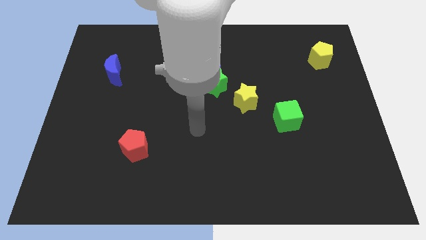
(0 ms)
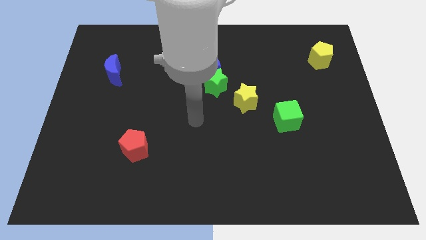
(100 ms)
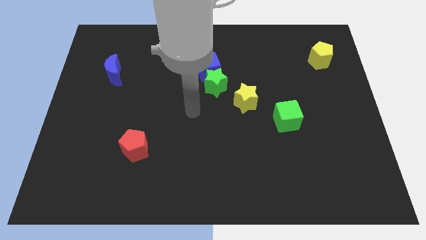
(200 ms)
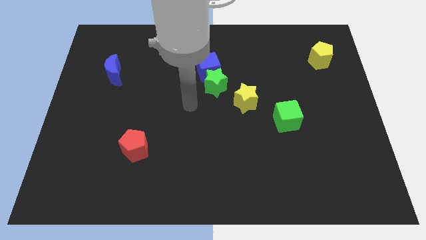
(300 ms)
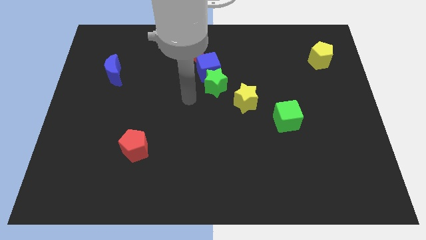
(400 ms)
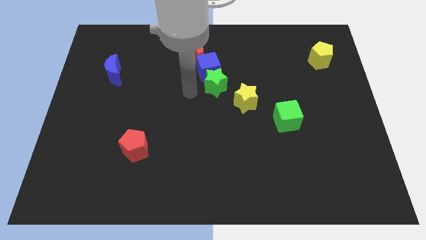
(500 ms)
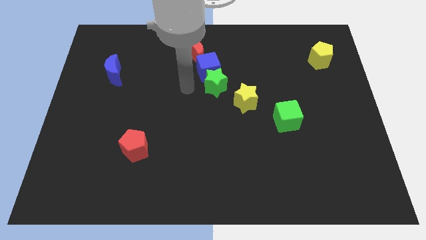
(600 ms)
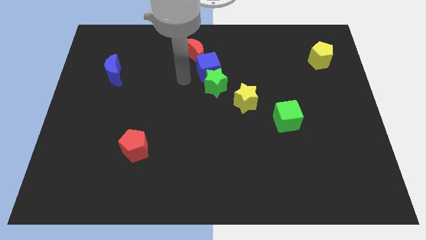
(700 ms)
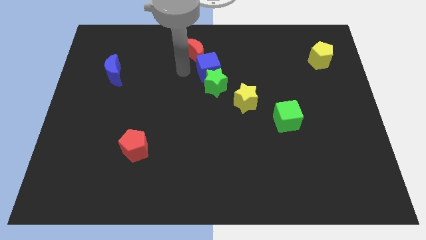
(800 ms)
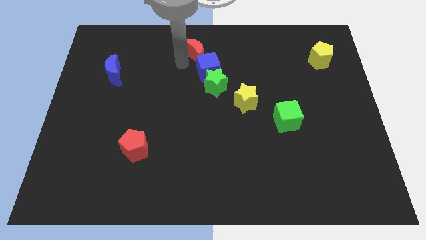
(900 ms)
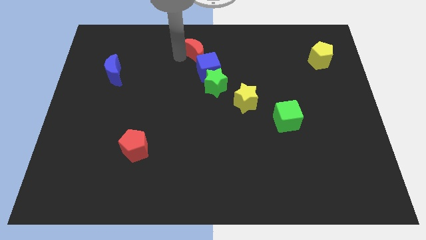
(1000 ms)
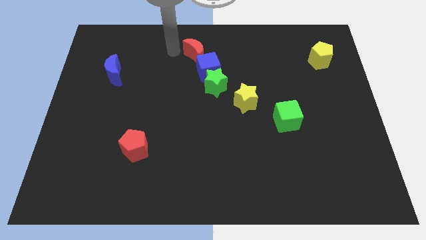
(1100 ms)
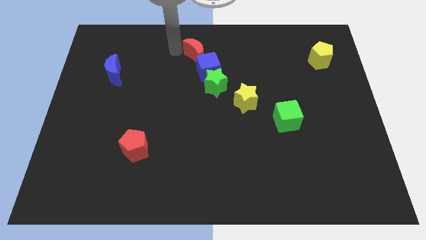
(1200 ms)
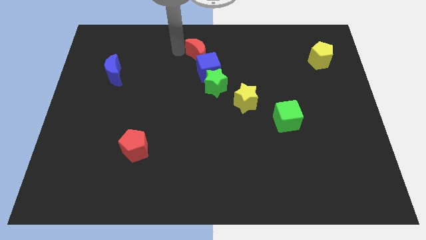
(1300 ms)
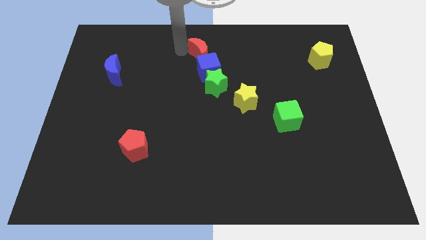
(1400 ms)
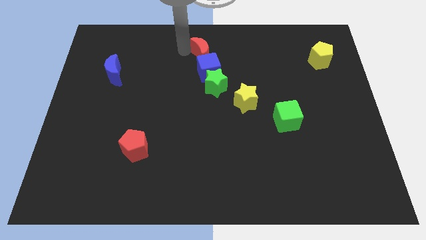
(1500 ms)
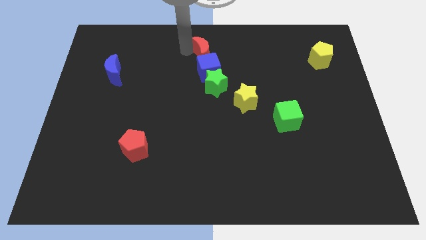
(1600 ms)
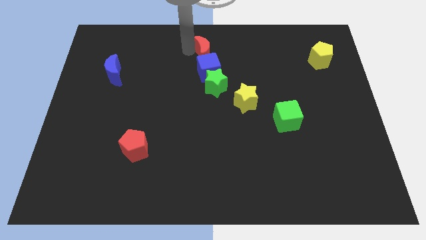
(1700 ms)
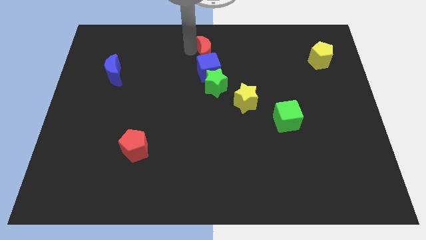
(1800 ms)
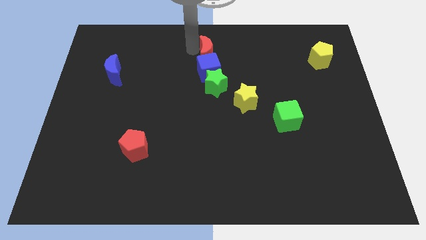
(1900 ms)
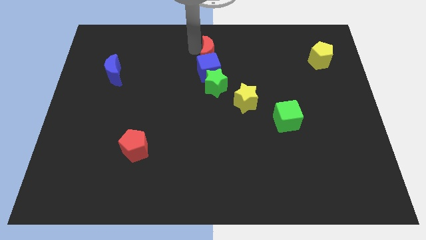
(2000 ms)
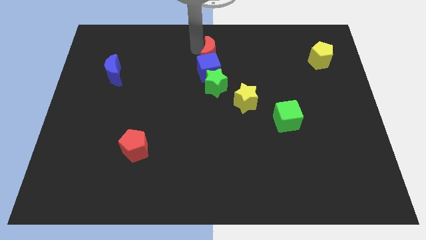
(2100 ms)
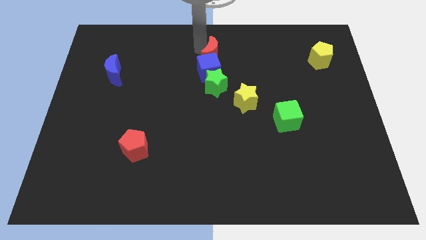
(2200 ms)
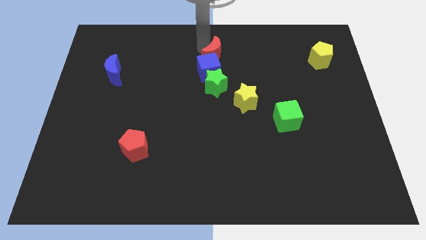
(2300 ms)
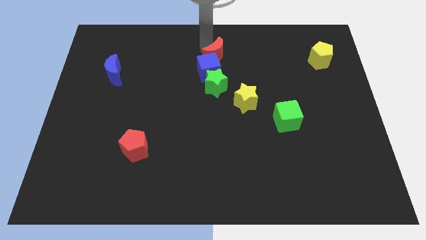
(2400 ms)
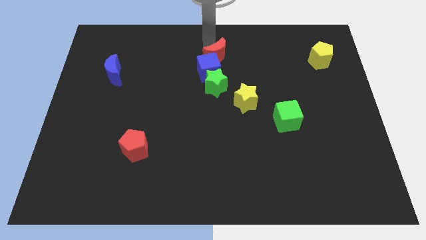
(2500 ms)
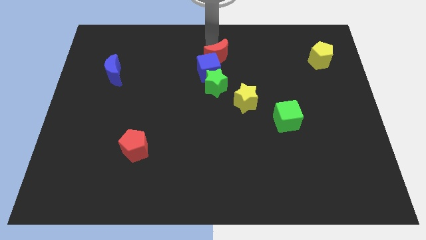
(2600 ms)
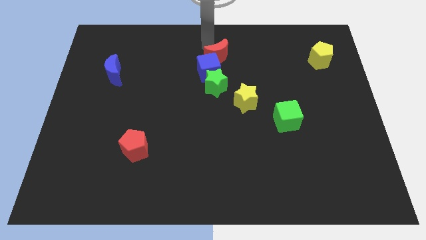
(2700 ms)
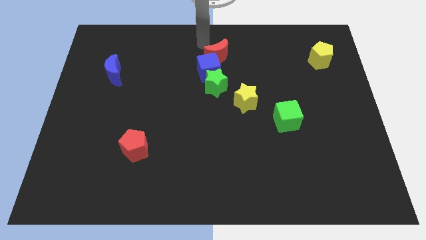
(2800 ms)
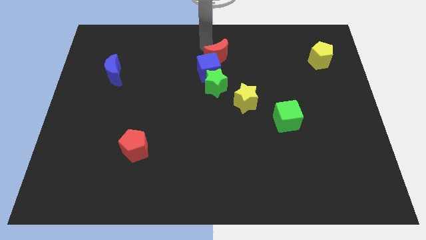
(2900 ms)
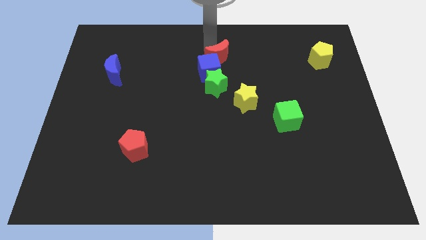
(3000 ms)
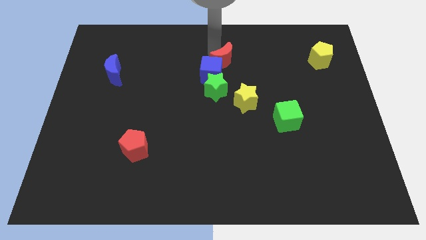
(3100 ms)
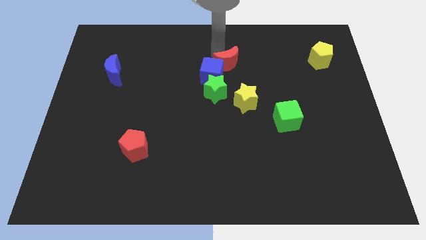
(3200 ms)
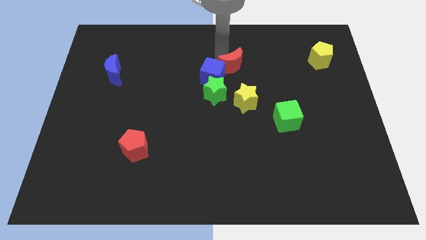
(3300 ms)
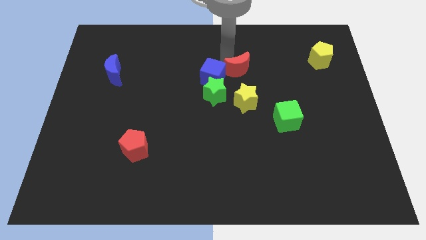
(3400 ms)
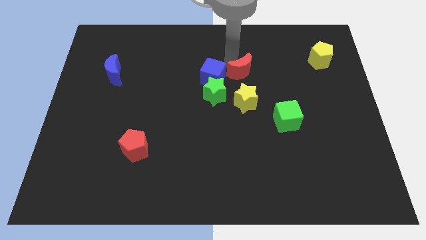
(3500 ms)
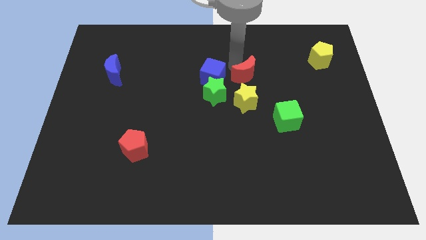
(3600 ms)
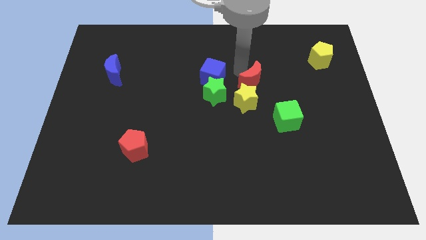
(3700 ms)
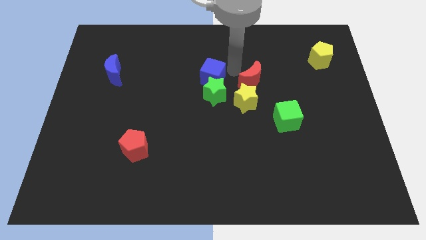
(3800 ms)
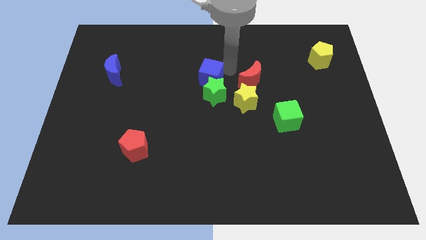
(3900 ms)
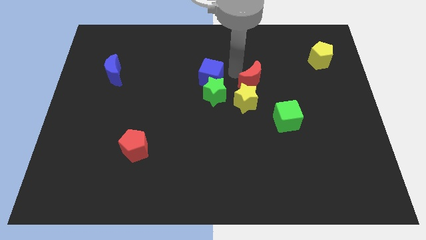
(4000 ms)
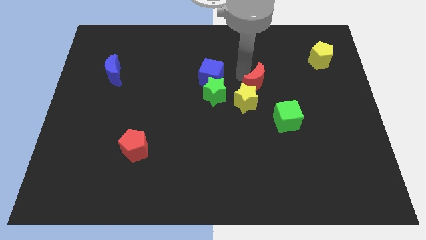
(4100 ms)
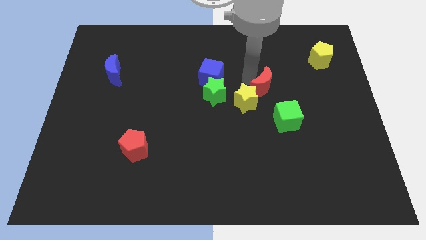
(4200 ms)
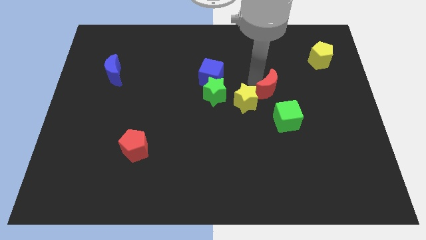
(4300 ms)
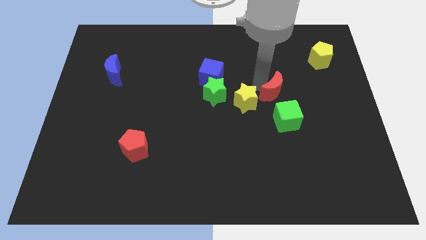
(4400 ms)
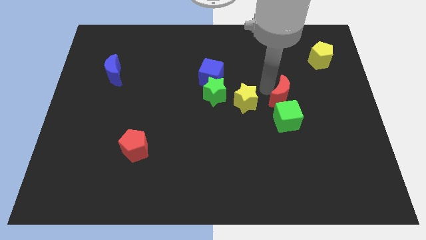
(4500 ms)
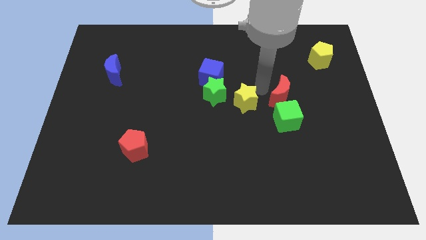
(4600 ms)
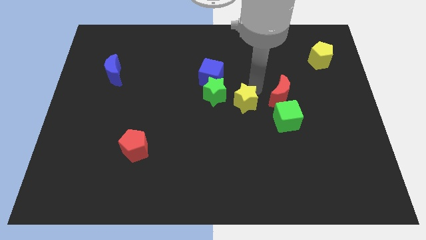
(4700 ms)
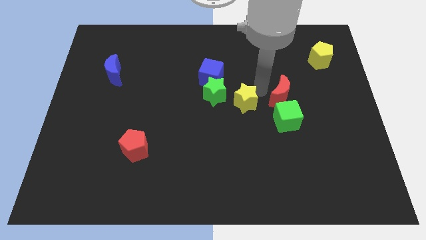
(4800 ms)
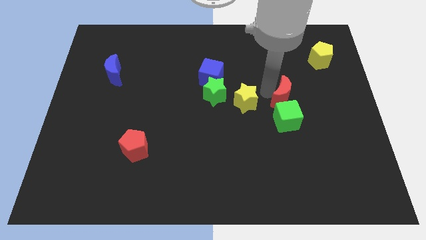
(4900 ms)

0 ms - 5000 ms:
put the red moon diagonally up and to the right of the green cube

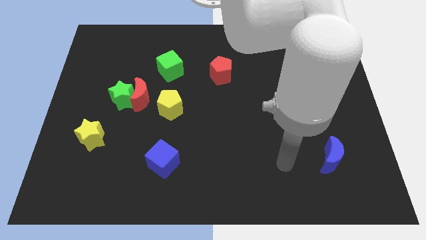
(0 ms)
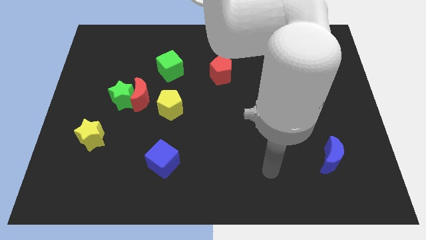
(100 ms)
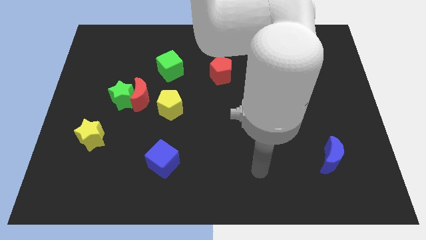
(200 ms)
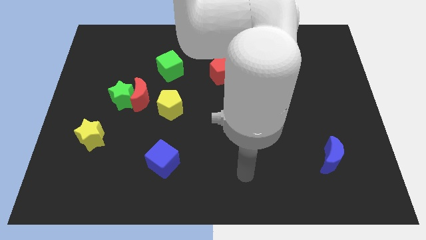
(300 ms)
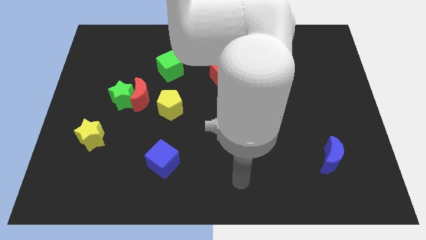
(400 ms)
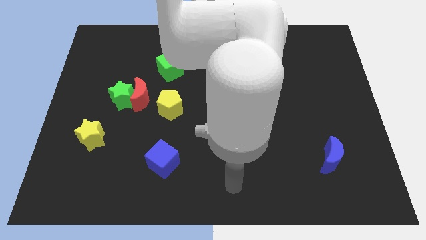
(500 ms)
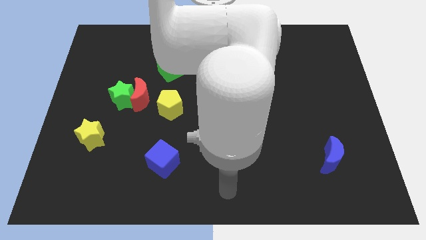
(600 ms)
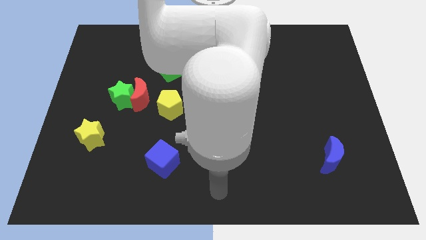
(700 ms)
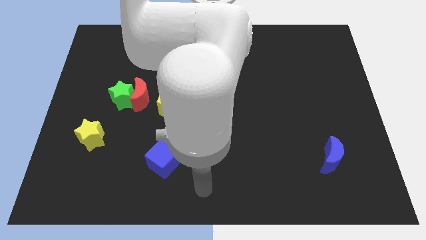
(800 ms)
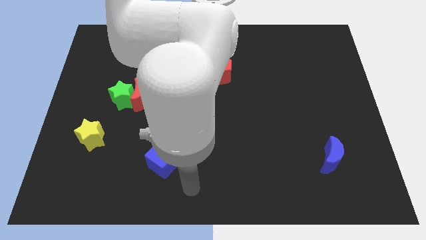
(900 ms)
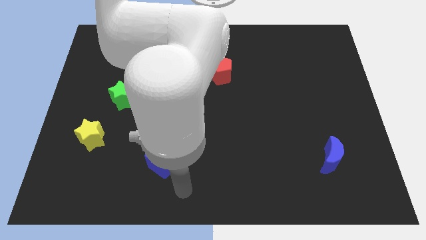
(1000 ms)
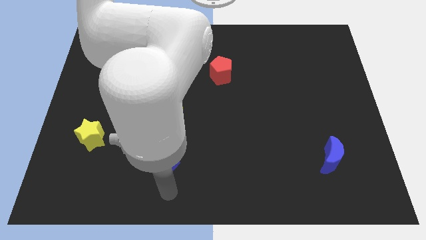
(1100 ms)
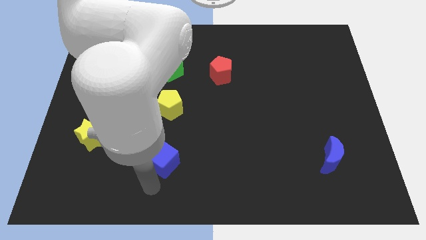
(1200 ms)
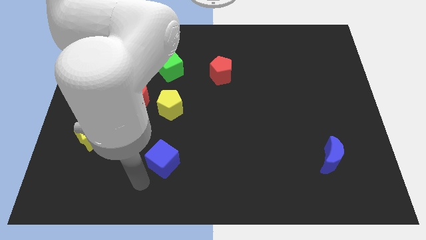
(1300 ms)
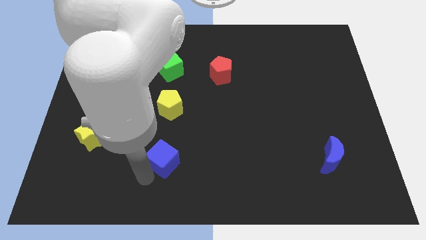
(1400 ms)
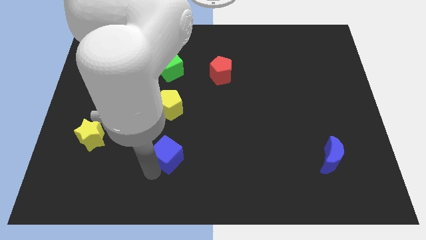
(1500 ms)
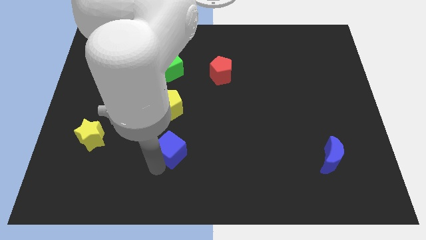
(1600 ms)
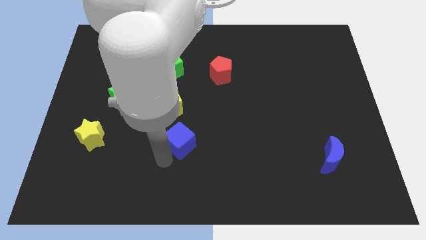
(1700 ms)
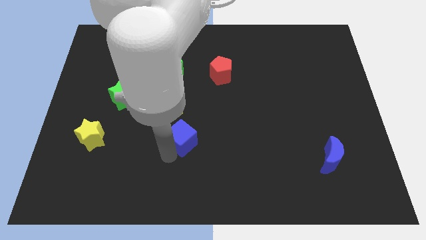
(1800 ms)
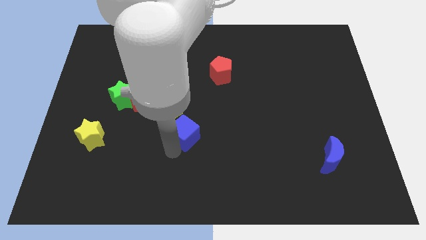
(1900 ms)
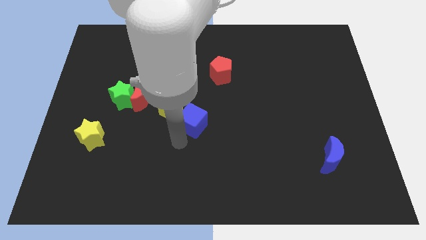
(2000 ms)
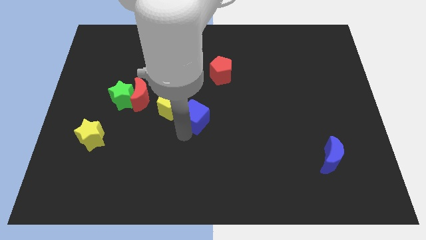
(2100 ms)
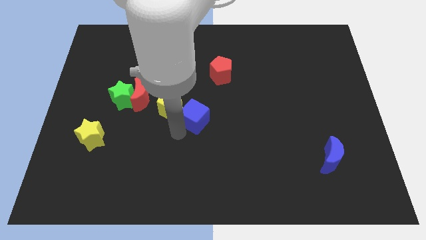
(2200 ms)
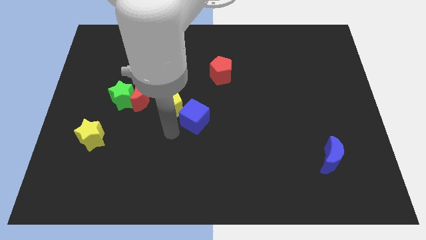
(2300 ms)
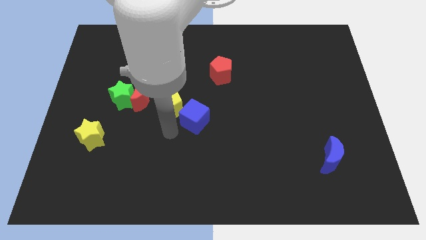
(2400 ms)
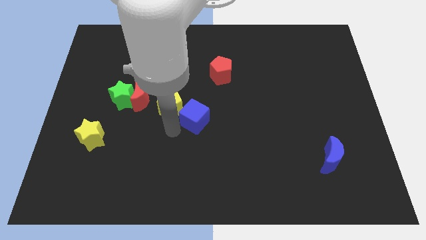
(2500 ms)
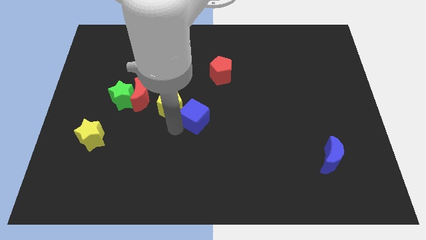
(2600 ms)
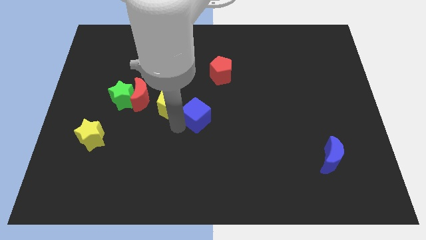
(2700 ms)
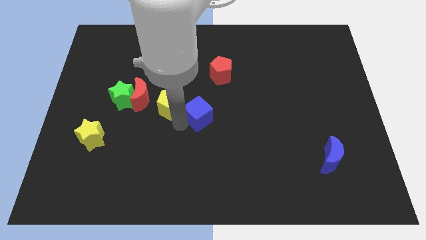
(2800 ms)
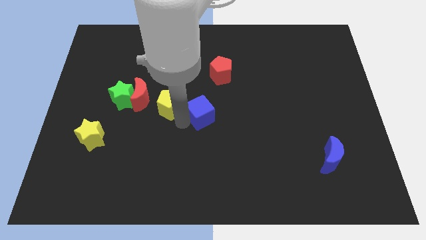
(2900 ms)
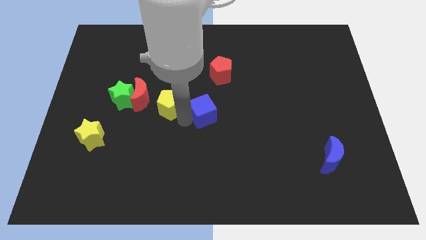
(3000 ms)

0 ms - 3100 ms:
push the blue cube to the bottom of the red pentagon
